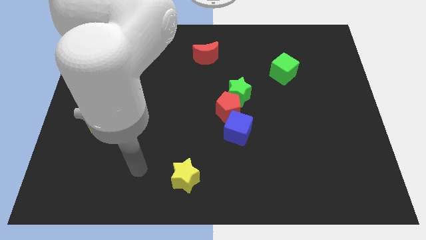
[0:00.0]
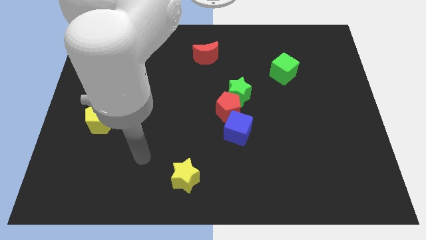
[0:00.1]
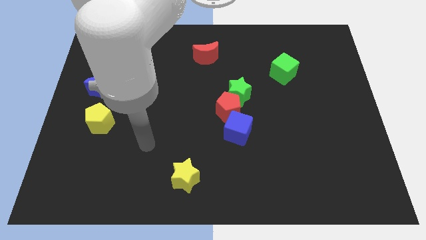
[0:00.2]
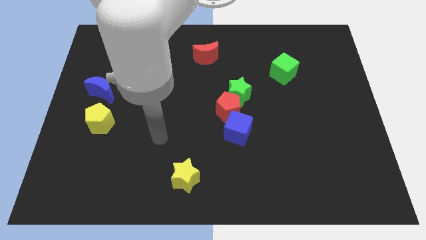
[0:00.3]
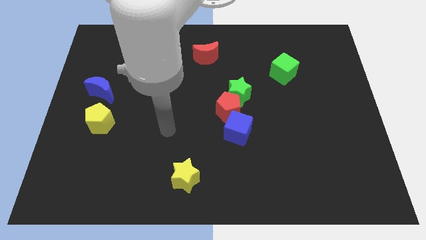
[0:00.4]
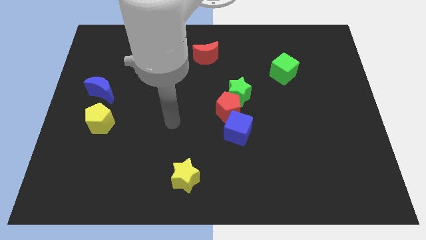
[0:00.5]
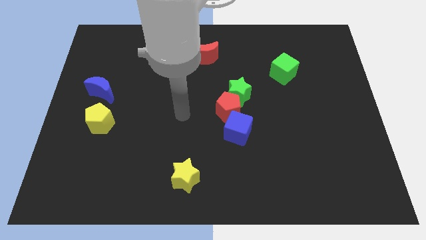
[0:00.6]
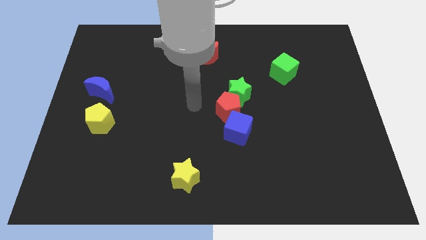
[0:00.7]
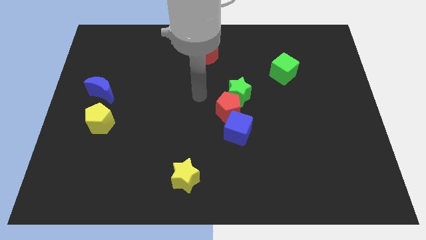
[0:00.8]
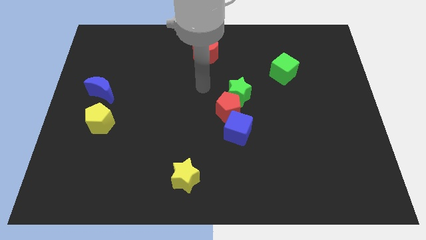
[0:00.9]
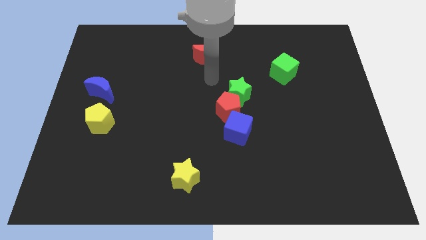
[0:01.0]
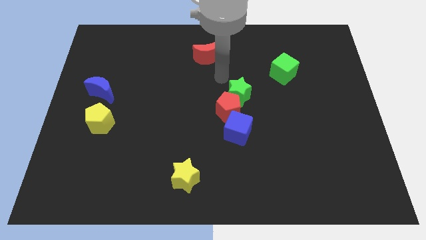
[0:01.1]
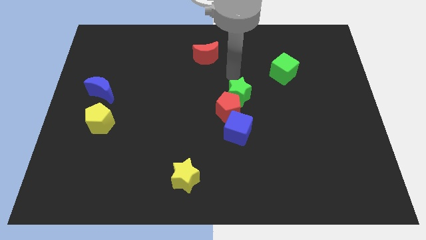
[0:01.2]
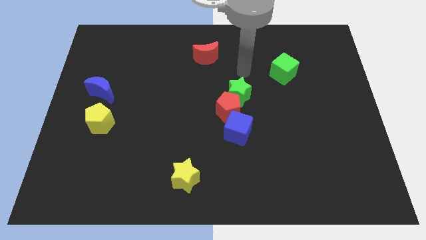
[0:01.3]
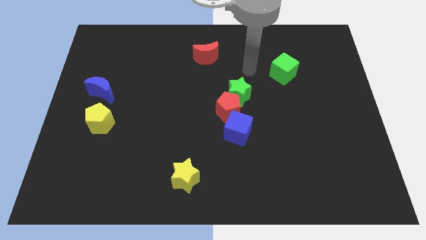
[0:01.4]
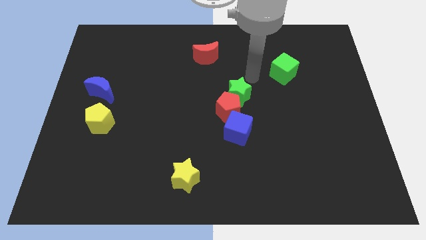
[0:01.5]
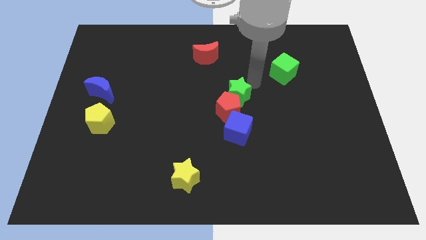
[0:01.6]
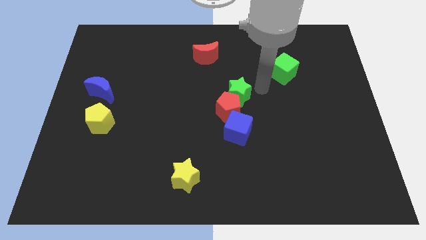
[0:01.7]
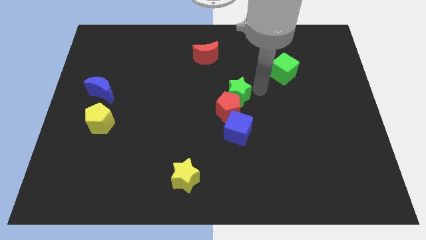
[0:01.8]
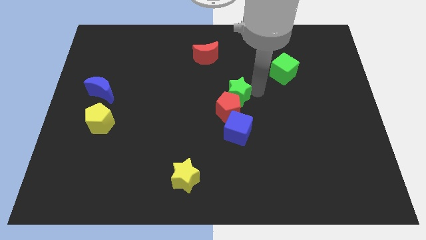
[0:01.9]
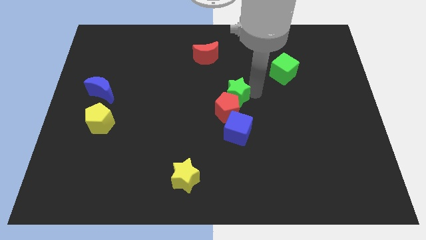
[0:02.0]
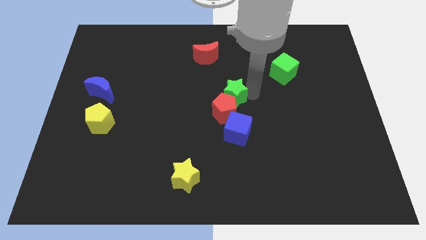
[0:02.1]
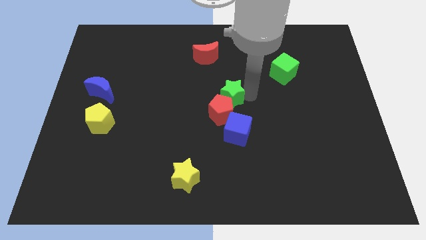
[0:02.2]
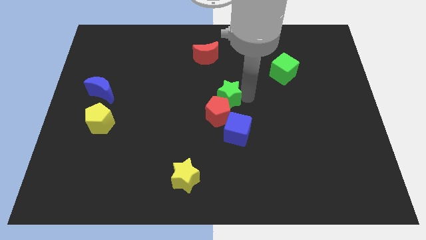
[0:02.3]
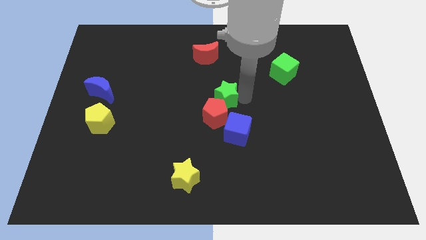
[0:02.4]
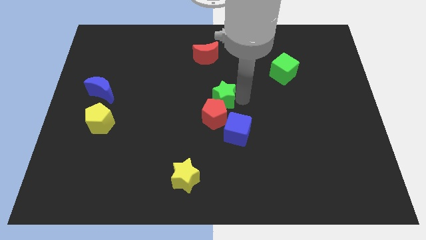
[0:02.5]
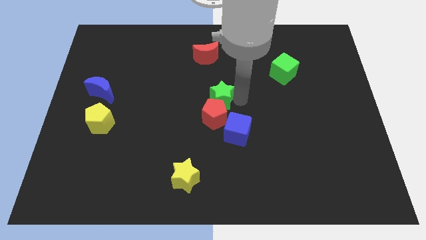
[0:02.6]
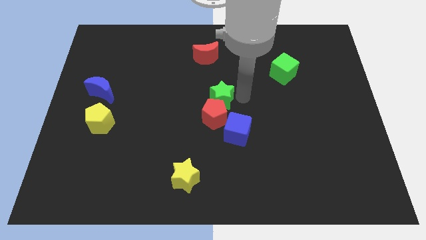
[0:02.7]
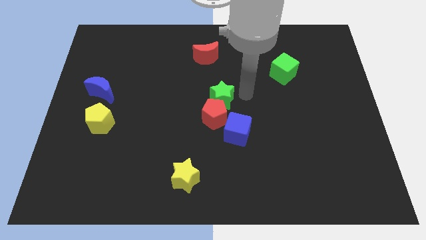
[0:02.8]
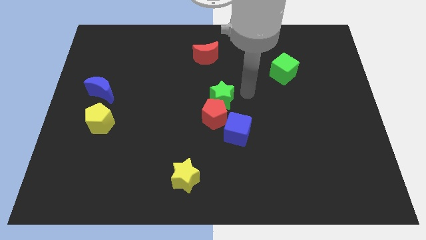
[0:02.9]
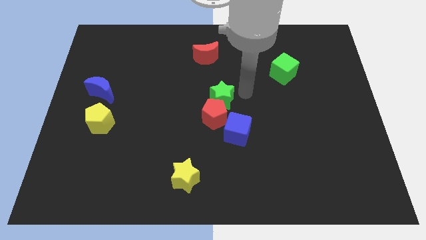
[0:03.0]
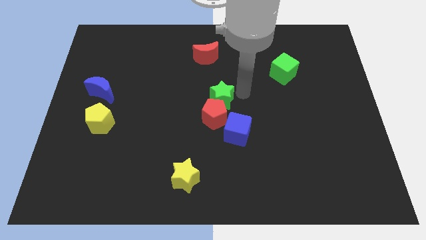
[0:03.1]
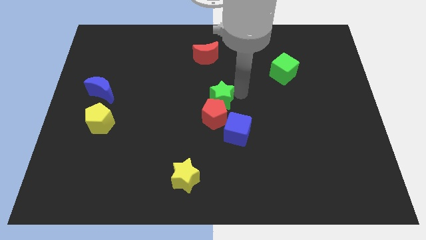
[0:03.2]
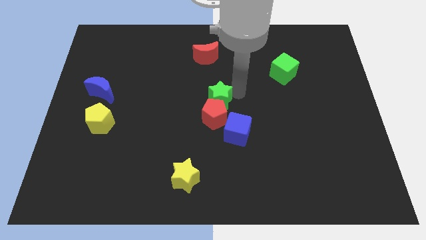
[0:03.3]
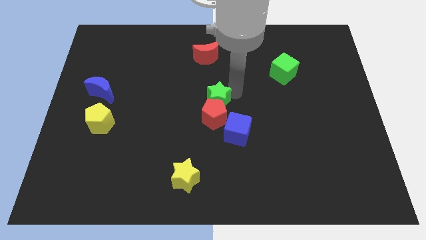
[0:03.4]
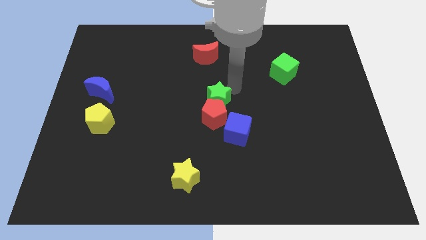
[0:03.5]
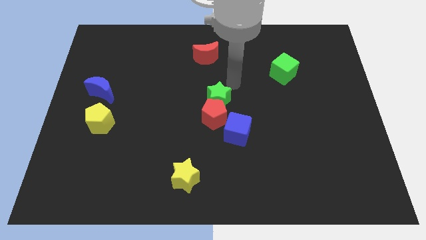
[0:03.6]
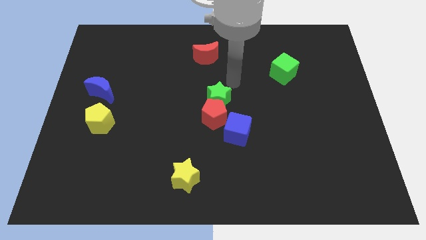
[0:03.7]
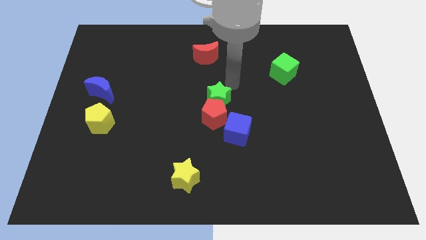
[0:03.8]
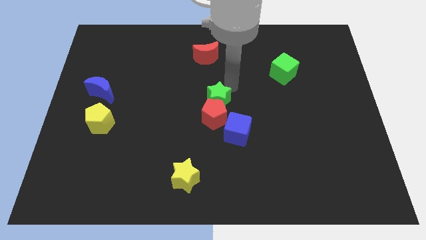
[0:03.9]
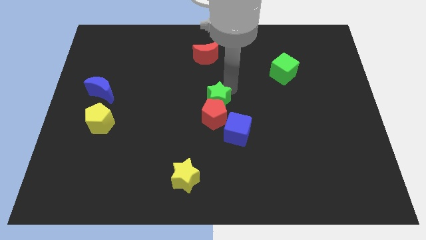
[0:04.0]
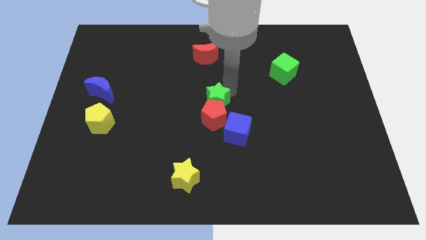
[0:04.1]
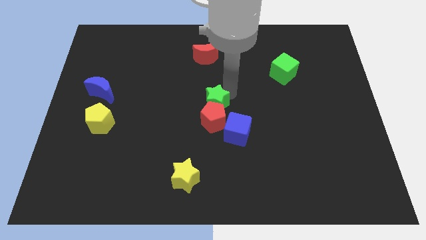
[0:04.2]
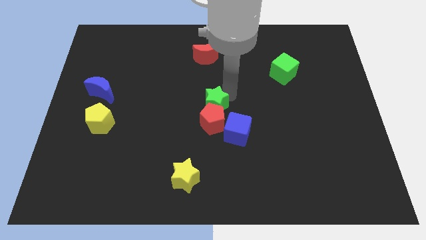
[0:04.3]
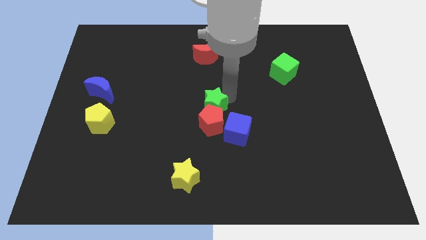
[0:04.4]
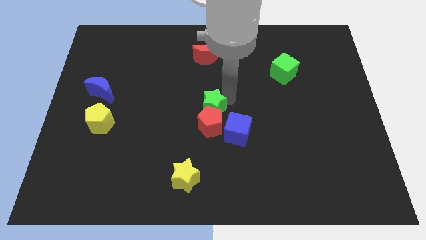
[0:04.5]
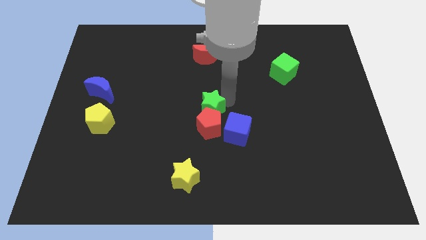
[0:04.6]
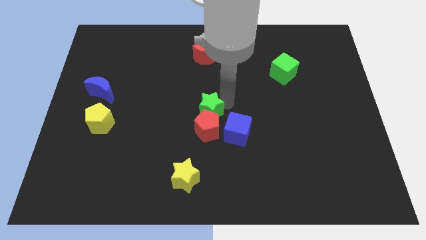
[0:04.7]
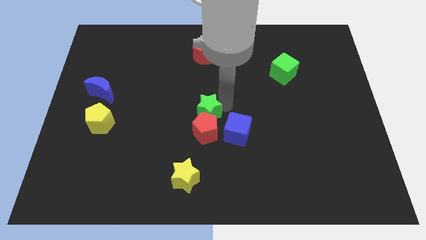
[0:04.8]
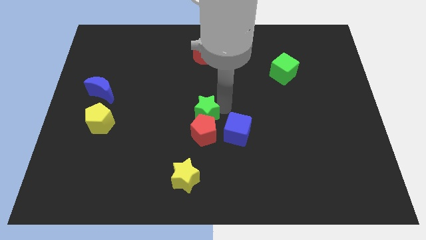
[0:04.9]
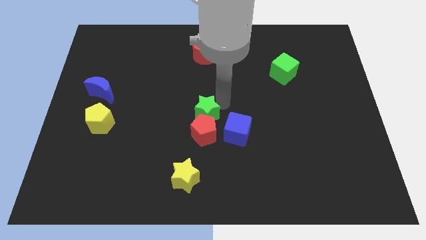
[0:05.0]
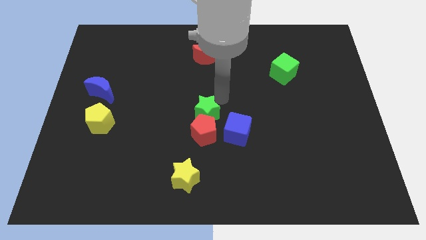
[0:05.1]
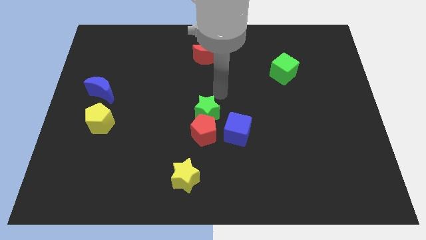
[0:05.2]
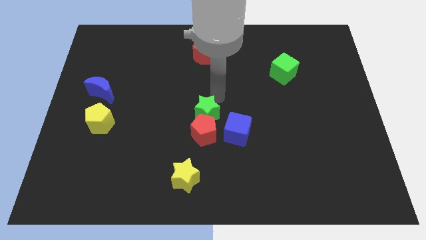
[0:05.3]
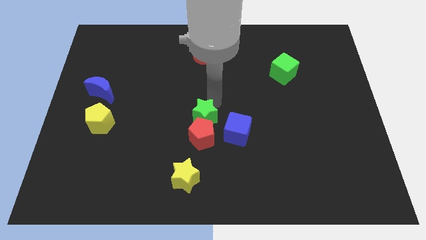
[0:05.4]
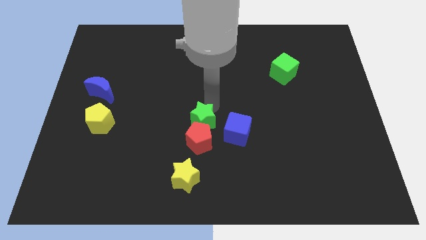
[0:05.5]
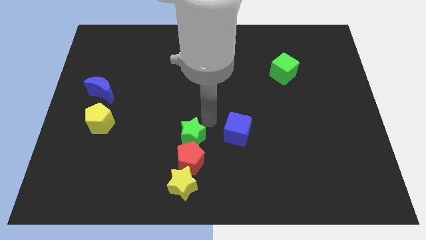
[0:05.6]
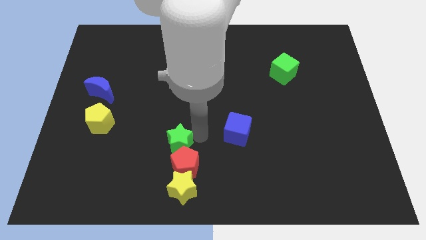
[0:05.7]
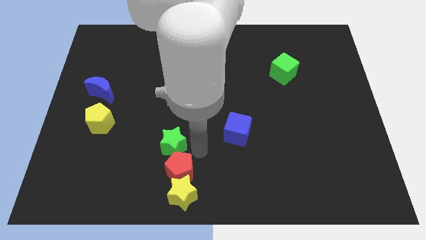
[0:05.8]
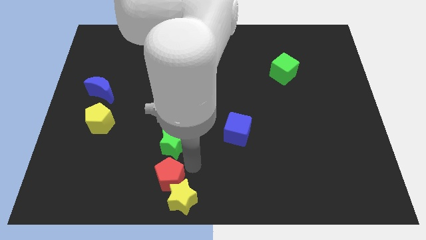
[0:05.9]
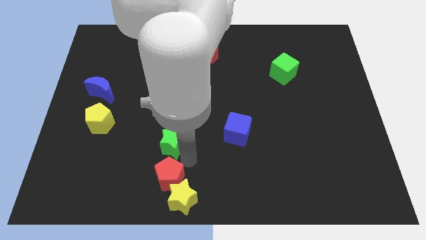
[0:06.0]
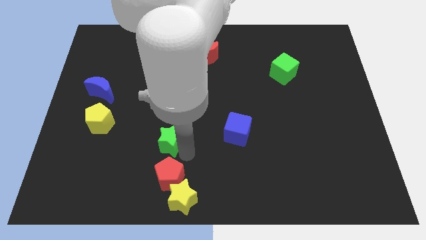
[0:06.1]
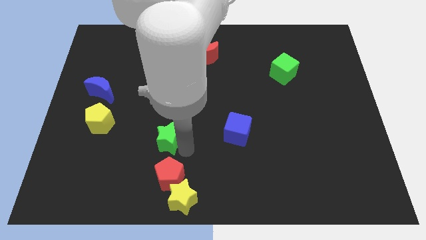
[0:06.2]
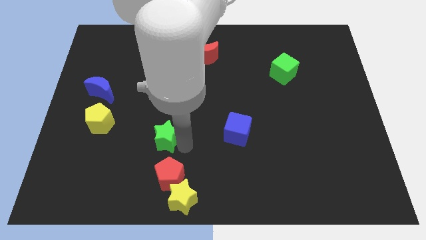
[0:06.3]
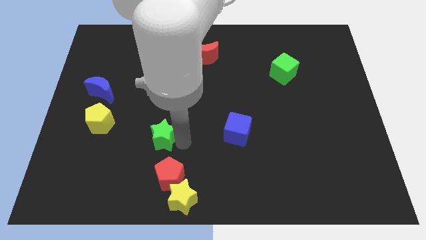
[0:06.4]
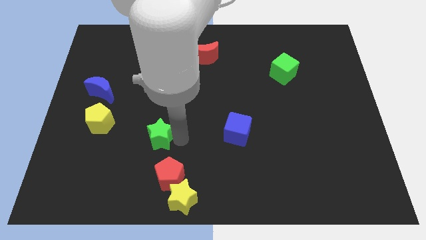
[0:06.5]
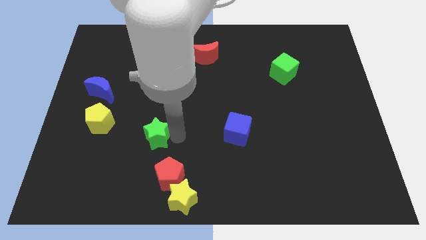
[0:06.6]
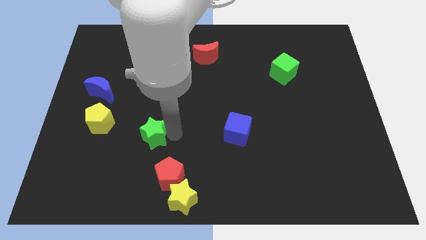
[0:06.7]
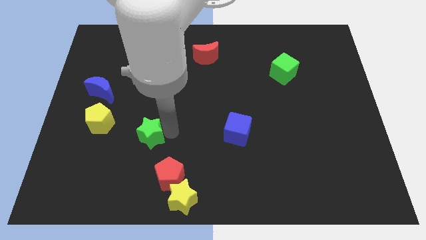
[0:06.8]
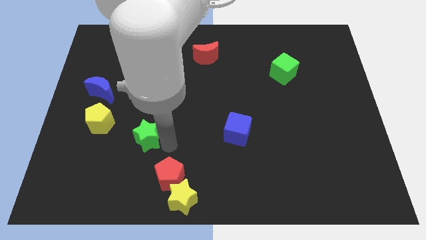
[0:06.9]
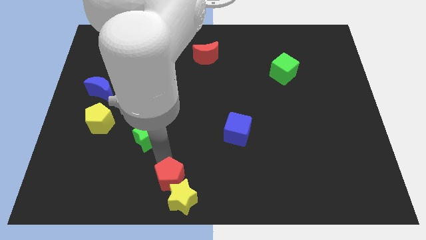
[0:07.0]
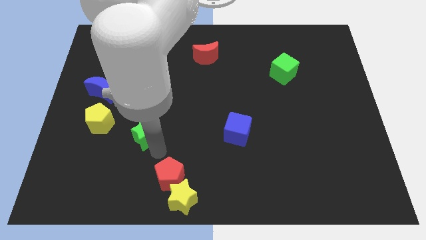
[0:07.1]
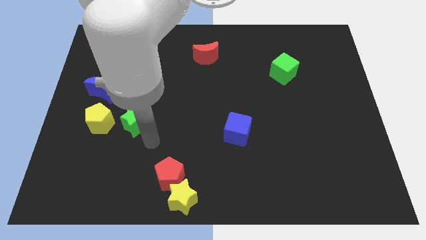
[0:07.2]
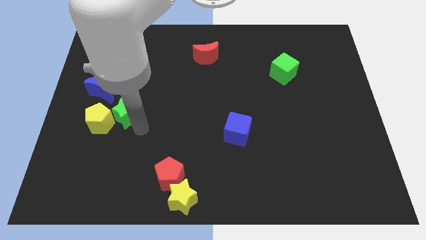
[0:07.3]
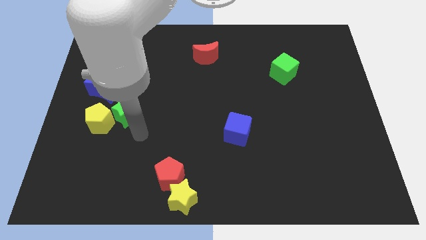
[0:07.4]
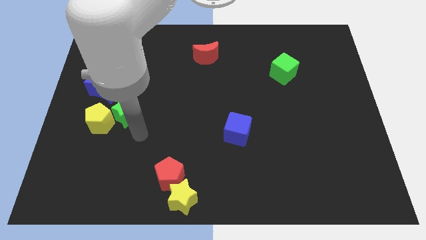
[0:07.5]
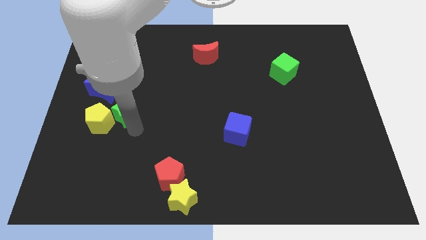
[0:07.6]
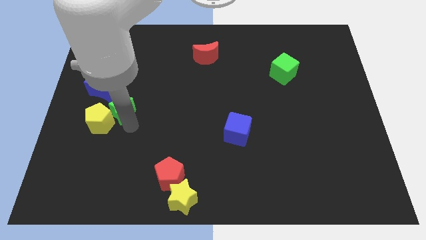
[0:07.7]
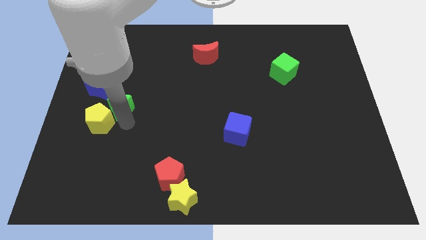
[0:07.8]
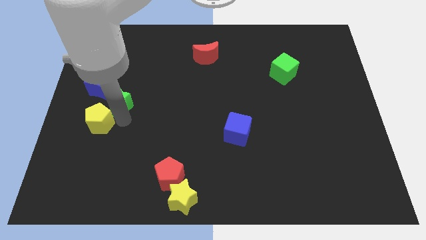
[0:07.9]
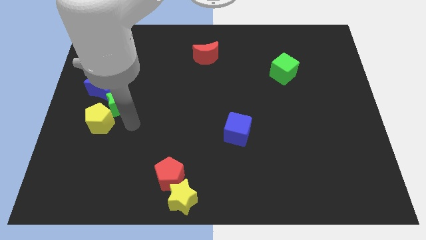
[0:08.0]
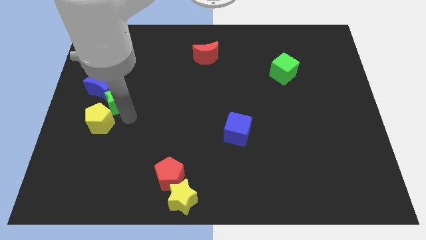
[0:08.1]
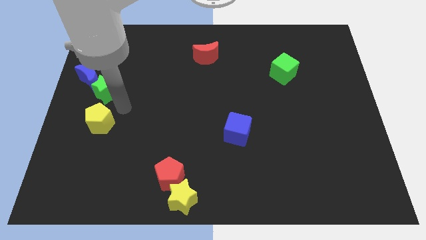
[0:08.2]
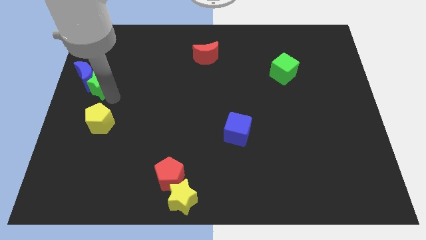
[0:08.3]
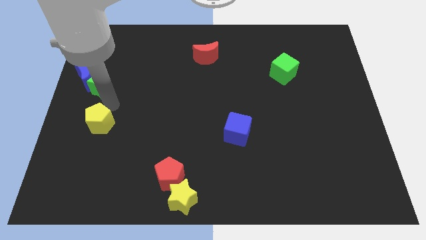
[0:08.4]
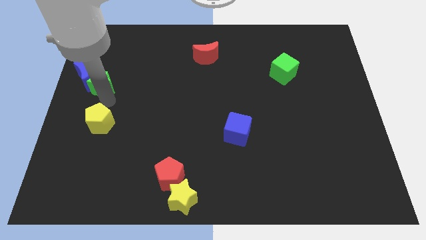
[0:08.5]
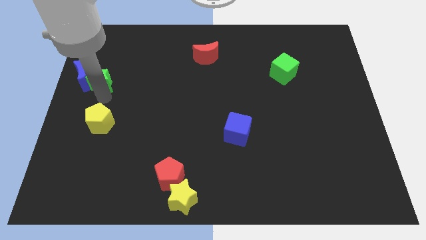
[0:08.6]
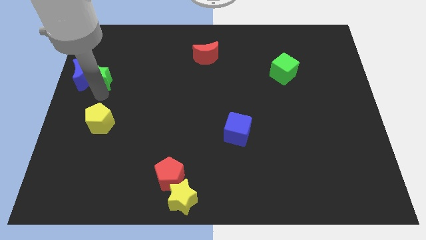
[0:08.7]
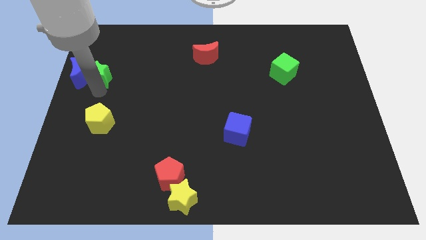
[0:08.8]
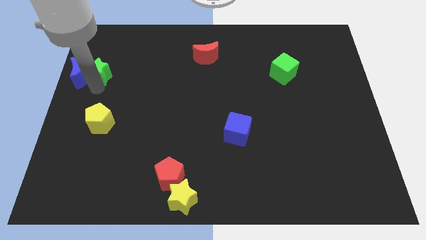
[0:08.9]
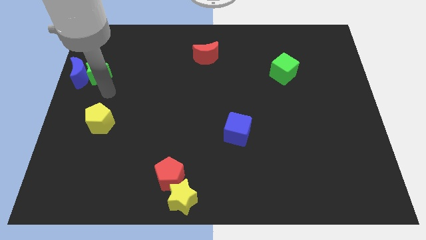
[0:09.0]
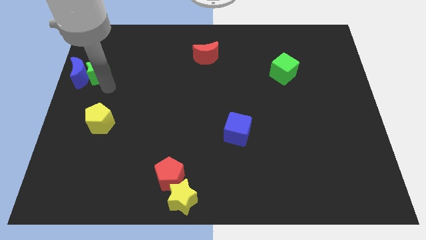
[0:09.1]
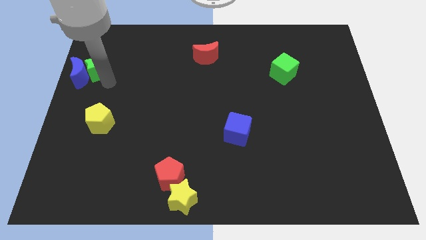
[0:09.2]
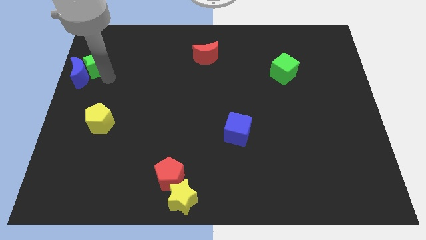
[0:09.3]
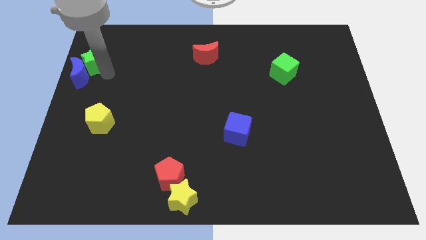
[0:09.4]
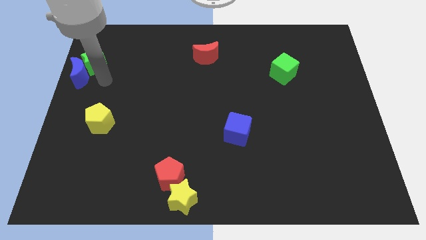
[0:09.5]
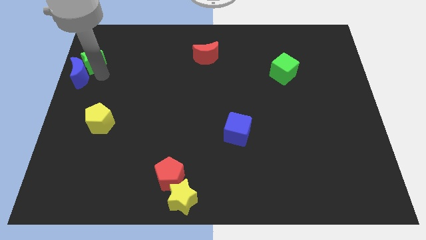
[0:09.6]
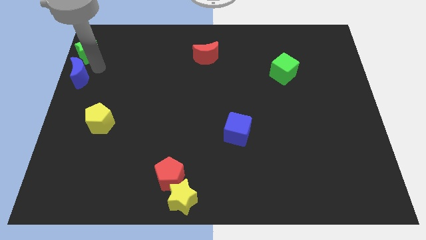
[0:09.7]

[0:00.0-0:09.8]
put the green star to the top left corner
